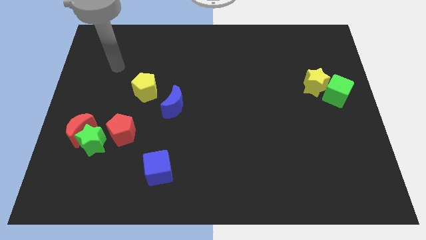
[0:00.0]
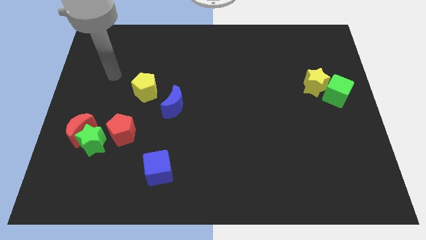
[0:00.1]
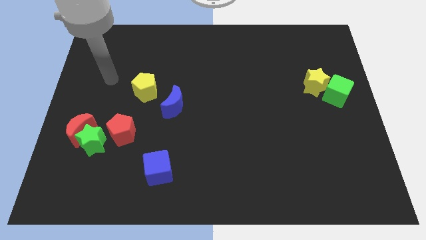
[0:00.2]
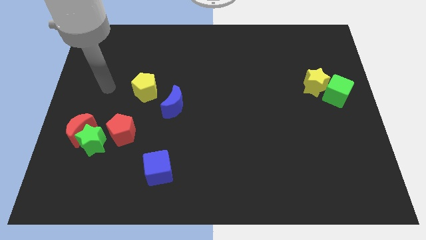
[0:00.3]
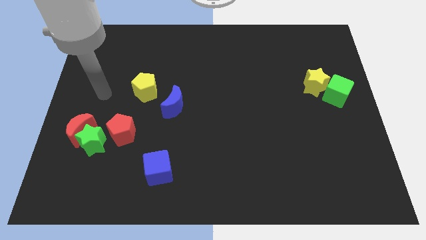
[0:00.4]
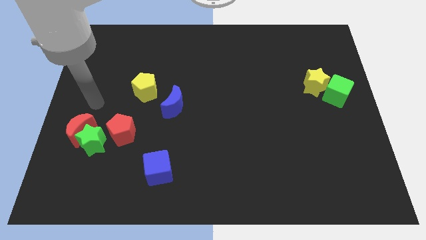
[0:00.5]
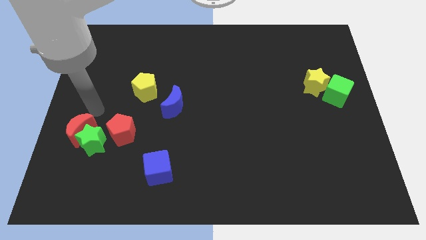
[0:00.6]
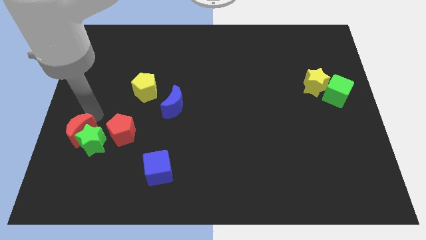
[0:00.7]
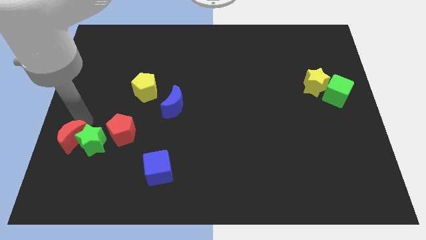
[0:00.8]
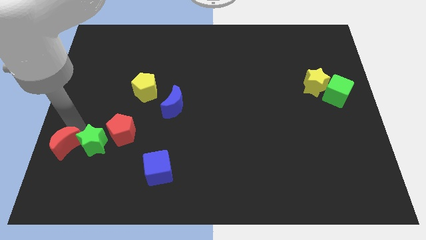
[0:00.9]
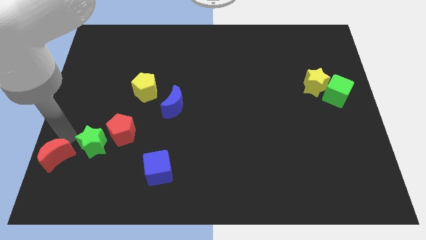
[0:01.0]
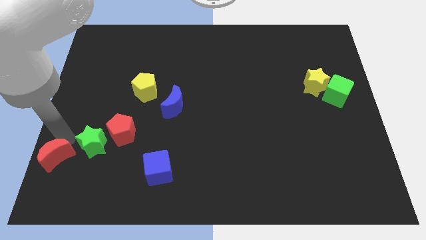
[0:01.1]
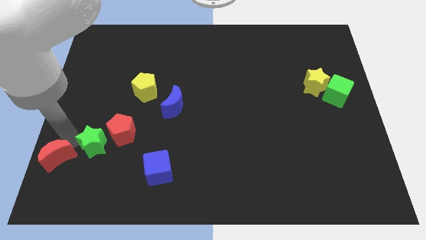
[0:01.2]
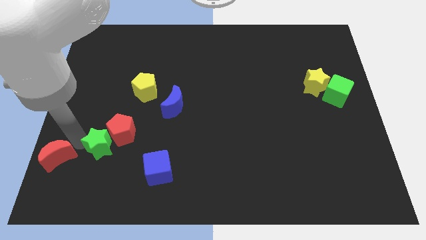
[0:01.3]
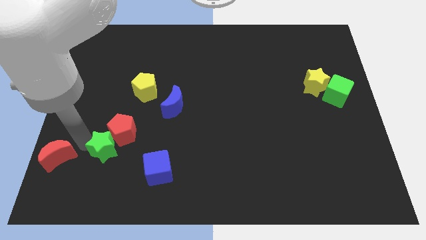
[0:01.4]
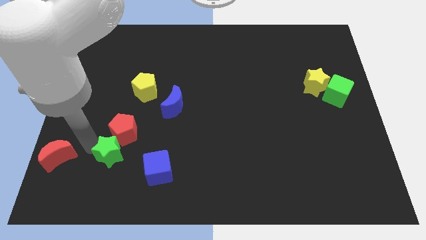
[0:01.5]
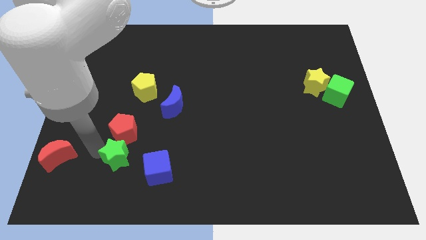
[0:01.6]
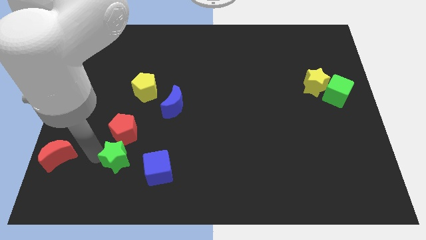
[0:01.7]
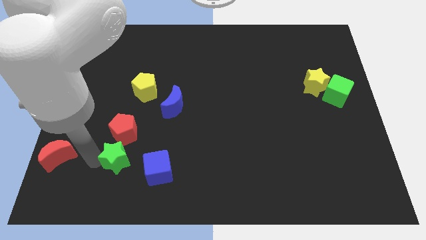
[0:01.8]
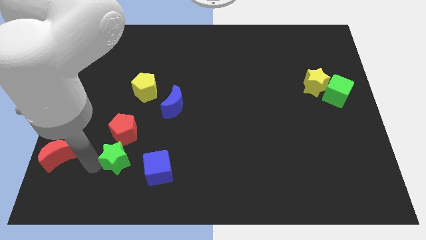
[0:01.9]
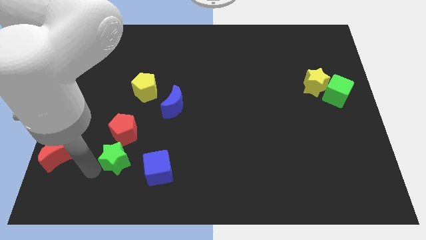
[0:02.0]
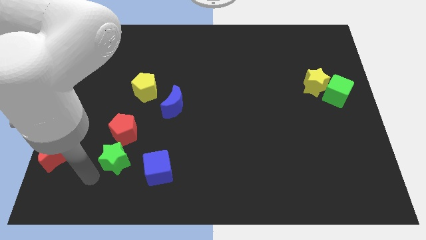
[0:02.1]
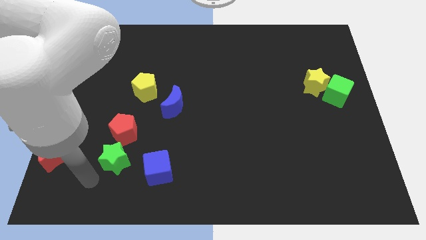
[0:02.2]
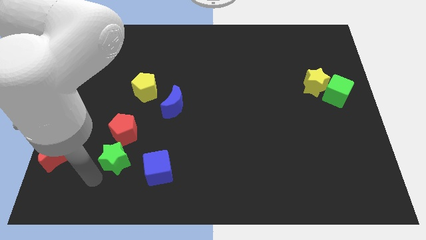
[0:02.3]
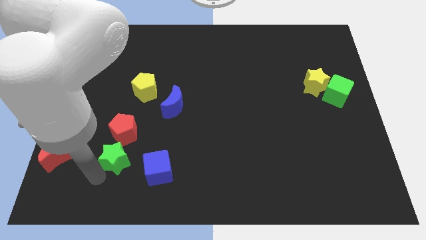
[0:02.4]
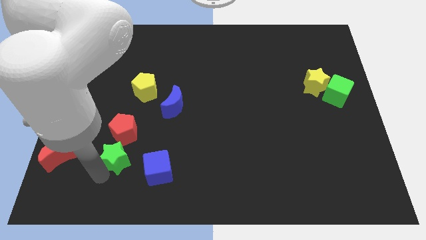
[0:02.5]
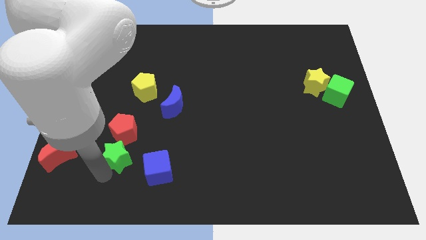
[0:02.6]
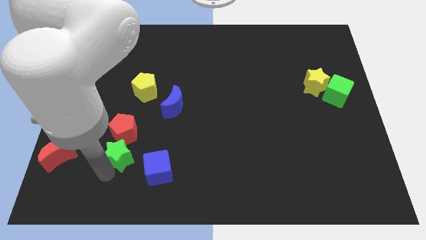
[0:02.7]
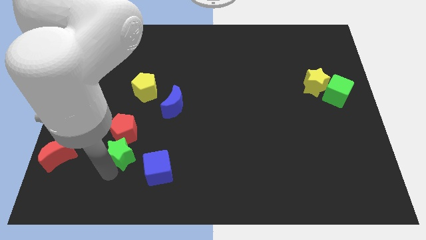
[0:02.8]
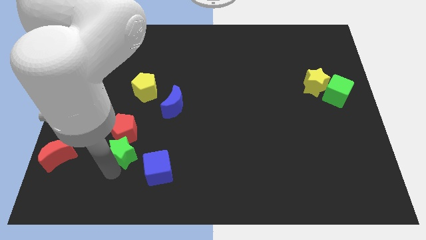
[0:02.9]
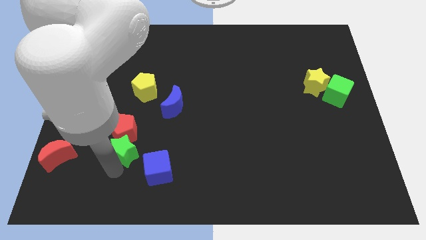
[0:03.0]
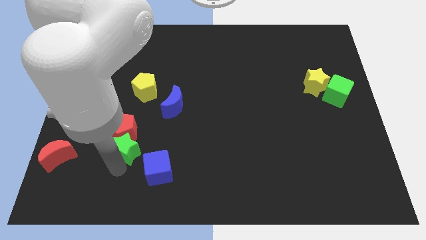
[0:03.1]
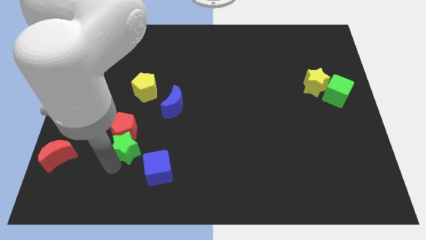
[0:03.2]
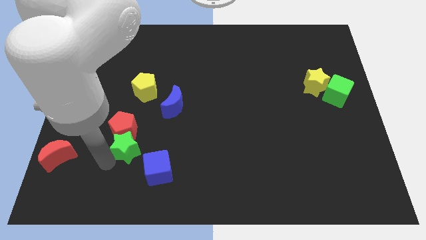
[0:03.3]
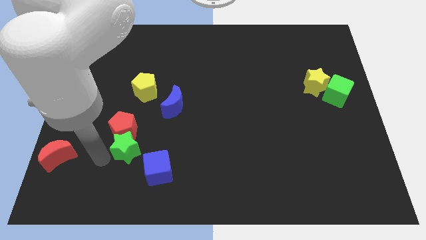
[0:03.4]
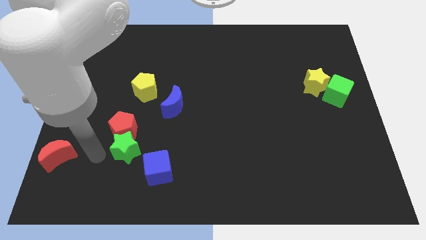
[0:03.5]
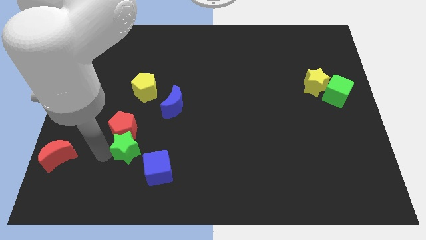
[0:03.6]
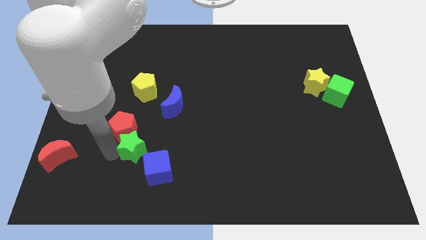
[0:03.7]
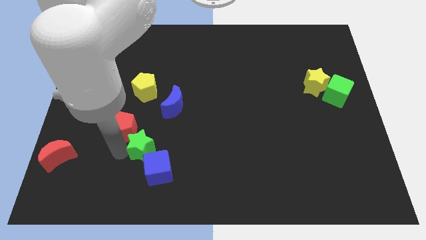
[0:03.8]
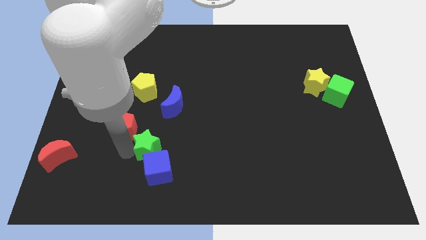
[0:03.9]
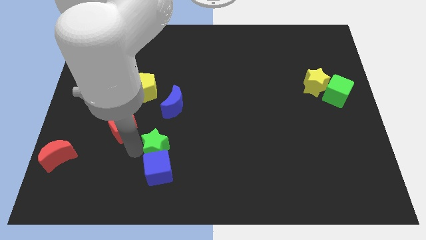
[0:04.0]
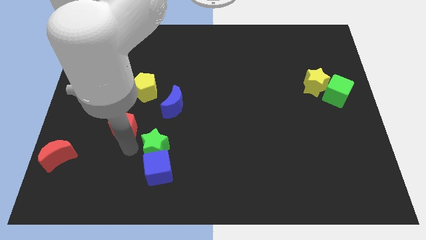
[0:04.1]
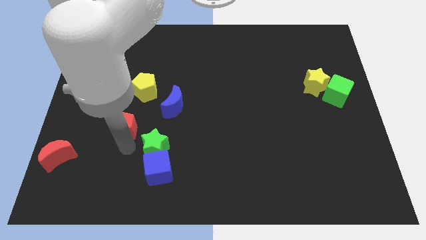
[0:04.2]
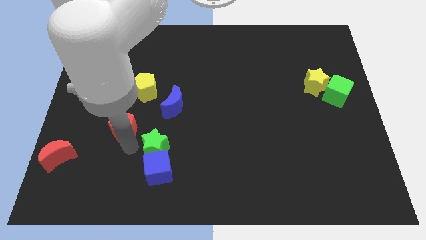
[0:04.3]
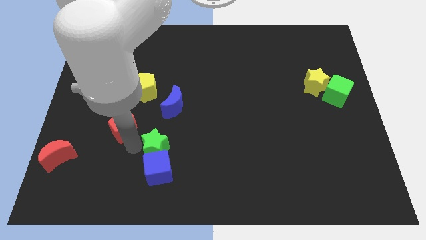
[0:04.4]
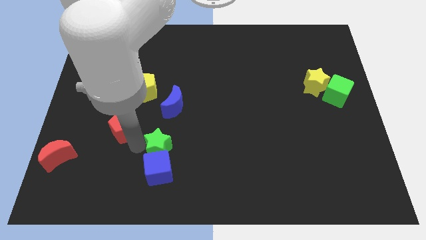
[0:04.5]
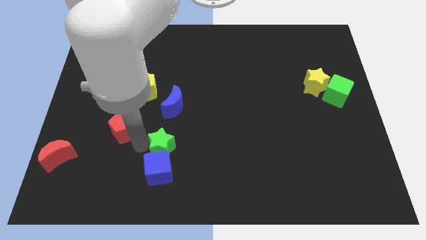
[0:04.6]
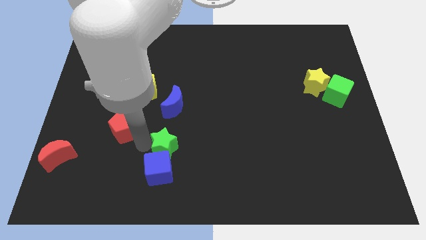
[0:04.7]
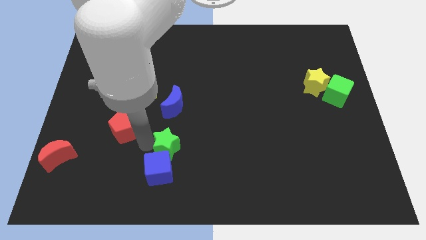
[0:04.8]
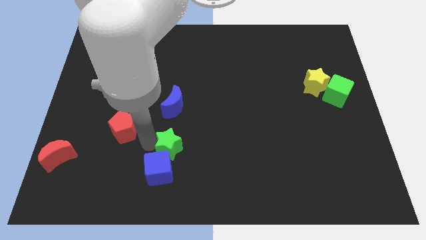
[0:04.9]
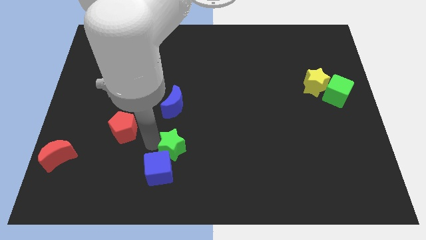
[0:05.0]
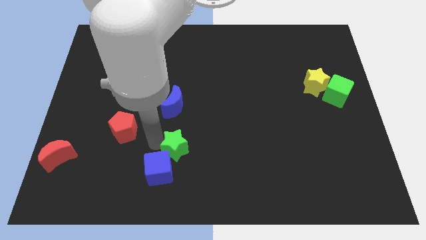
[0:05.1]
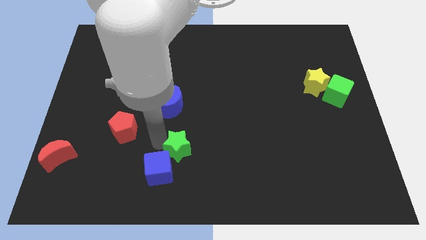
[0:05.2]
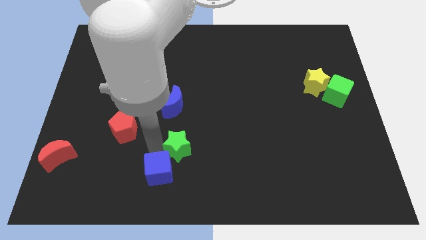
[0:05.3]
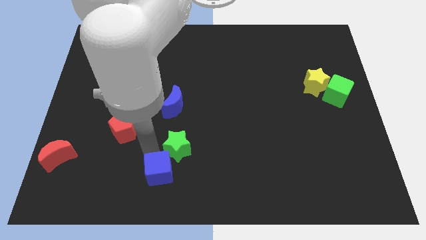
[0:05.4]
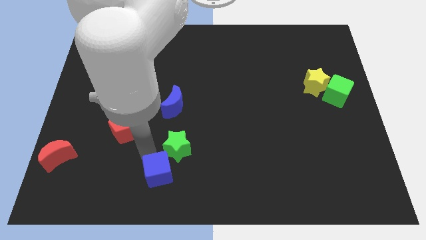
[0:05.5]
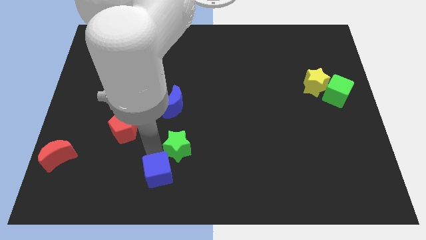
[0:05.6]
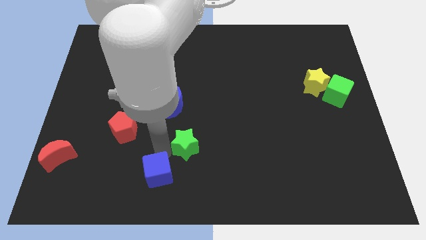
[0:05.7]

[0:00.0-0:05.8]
slide the green star right

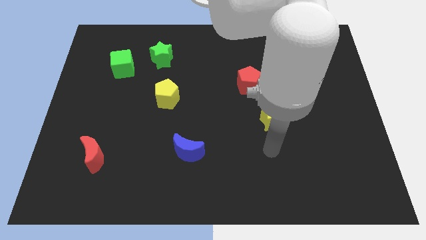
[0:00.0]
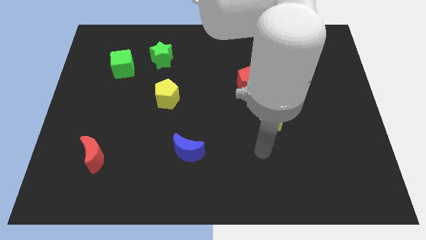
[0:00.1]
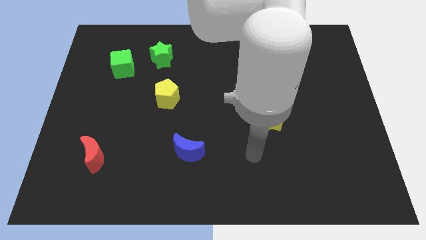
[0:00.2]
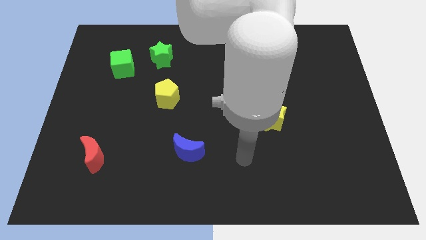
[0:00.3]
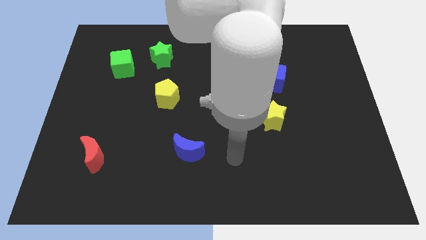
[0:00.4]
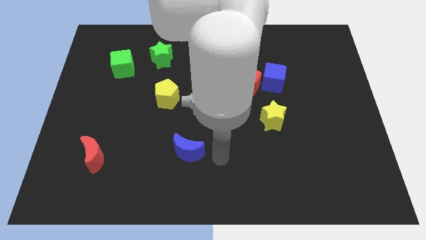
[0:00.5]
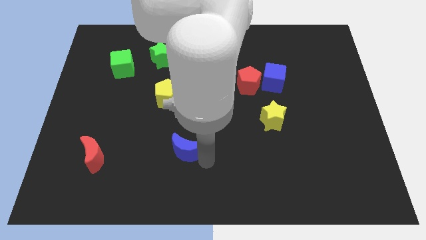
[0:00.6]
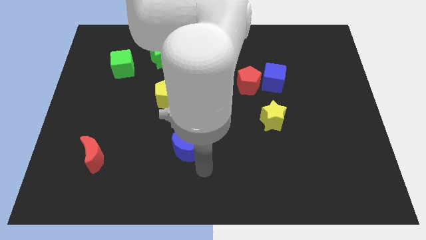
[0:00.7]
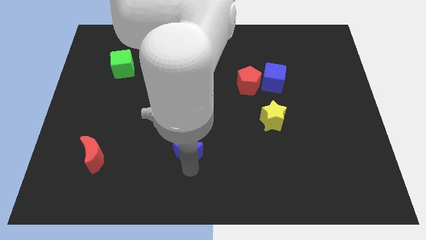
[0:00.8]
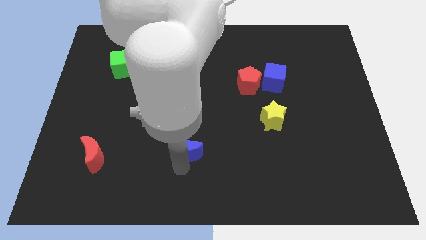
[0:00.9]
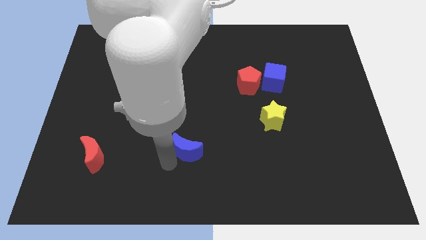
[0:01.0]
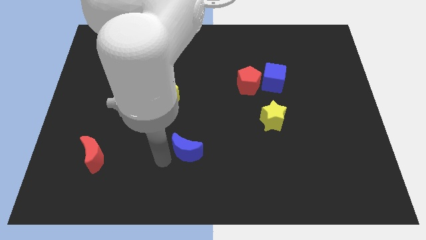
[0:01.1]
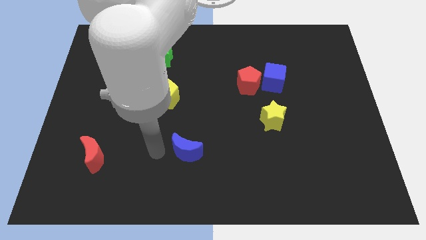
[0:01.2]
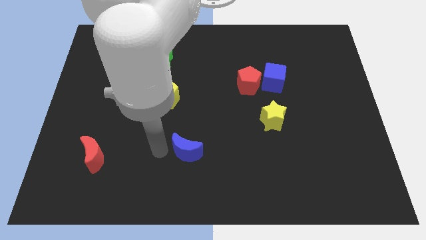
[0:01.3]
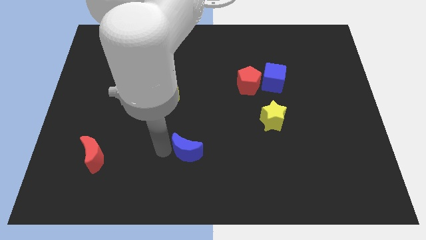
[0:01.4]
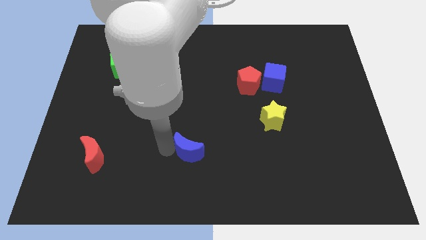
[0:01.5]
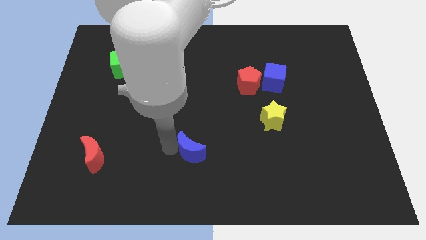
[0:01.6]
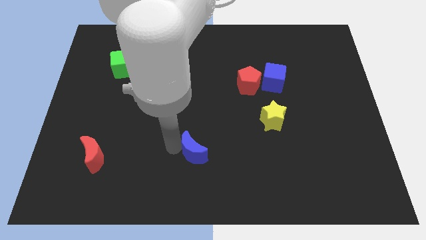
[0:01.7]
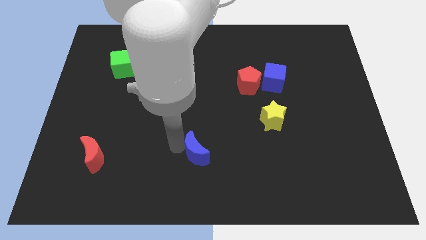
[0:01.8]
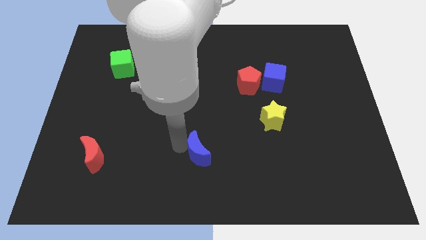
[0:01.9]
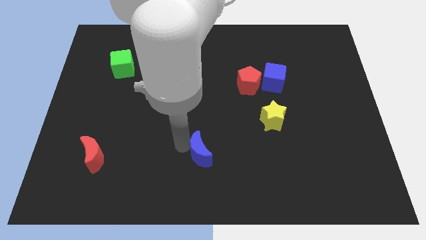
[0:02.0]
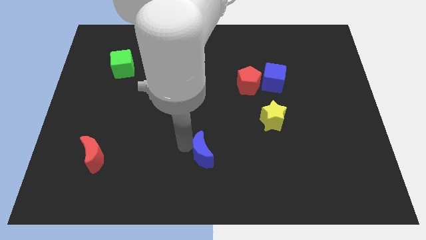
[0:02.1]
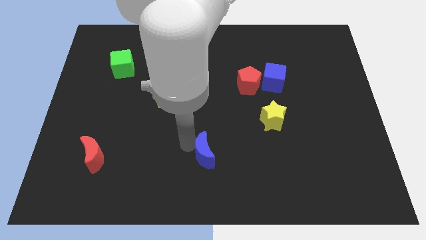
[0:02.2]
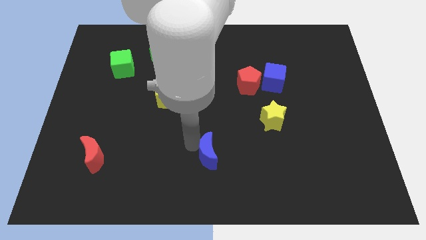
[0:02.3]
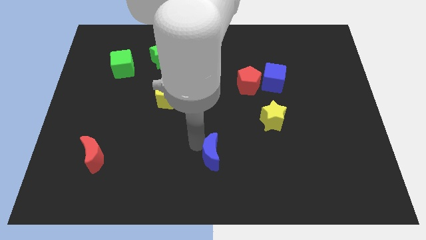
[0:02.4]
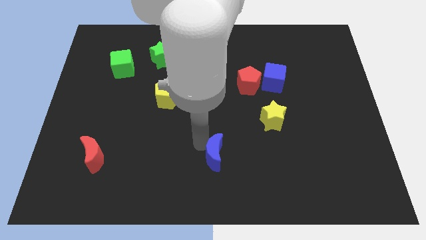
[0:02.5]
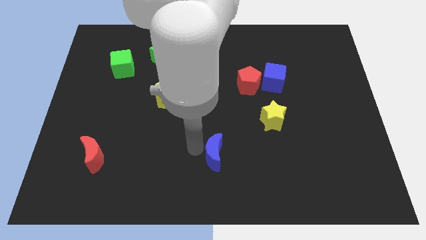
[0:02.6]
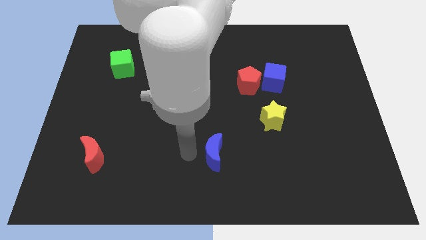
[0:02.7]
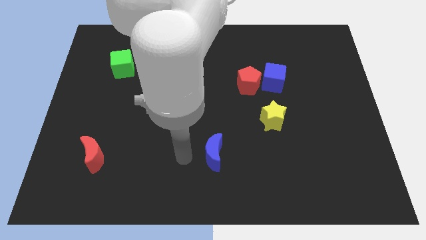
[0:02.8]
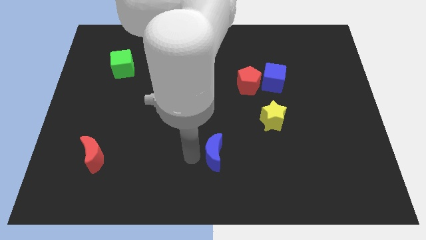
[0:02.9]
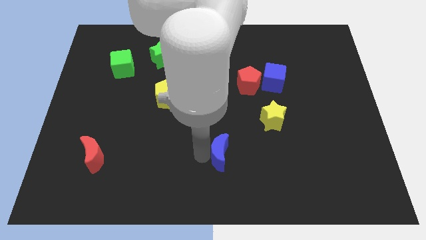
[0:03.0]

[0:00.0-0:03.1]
slide the blue moon to the right a little
